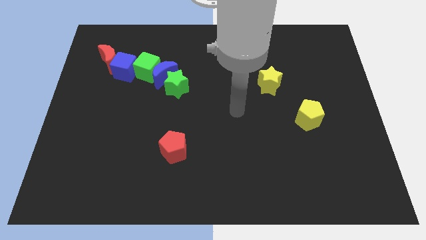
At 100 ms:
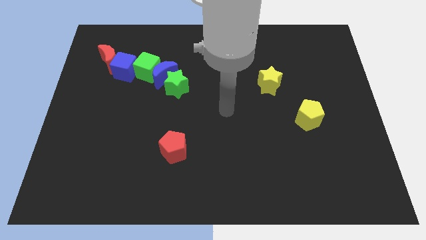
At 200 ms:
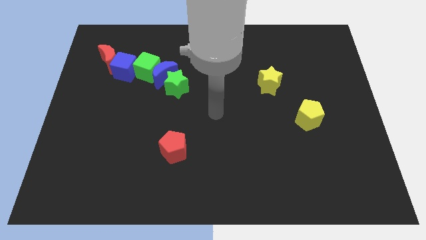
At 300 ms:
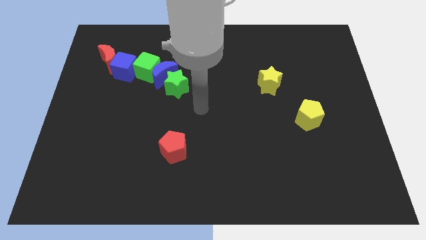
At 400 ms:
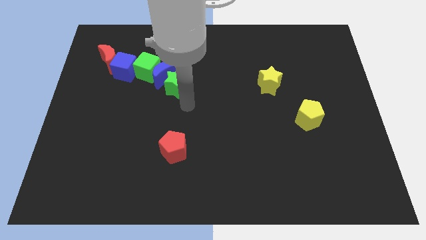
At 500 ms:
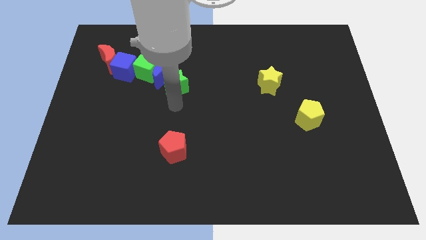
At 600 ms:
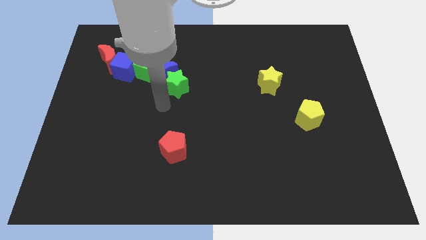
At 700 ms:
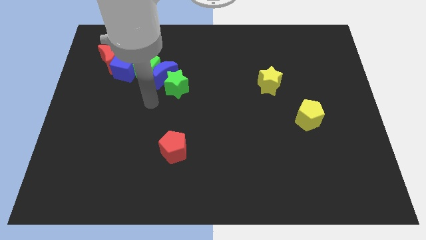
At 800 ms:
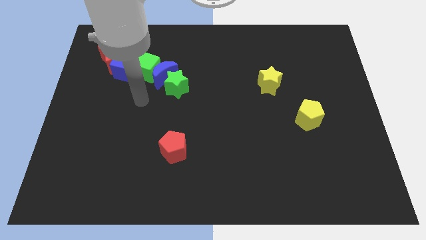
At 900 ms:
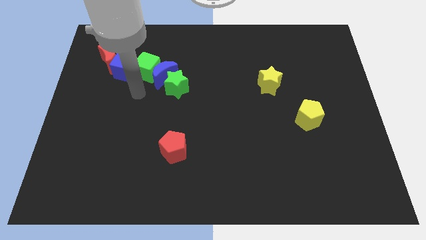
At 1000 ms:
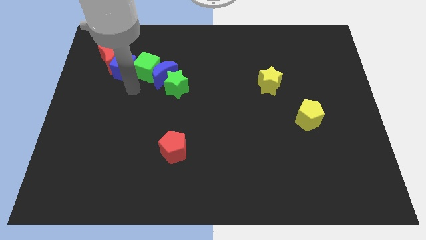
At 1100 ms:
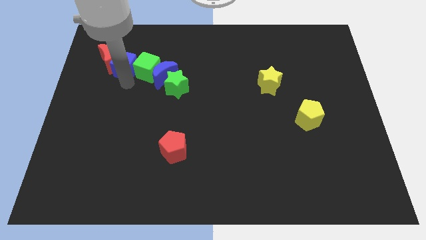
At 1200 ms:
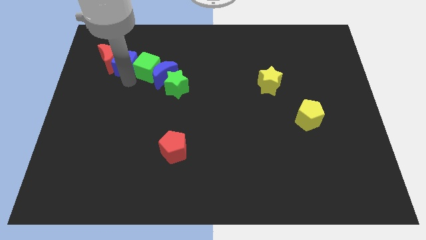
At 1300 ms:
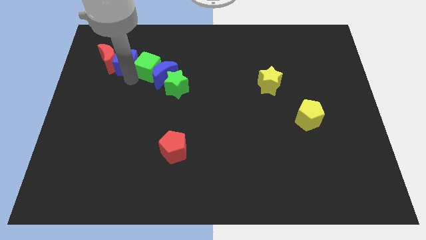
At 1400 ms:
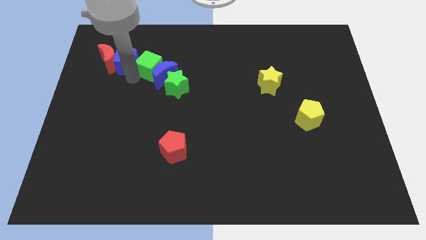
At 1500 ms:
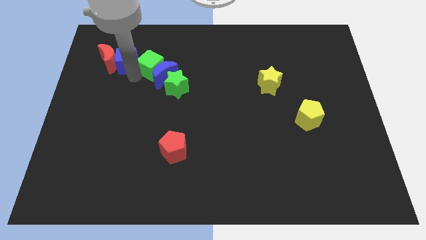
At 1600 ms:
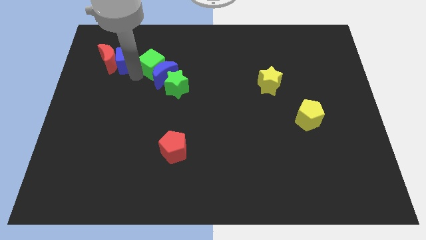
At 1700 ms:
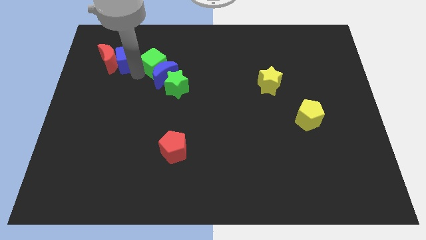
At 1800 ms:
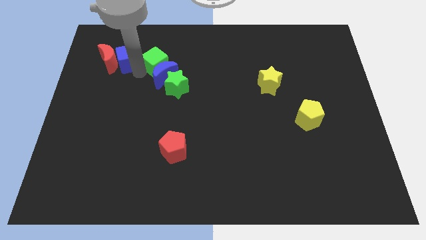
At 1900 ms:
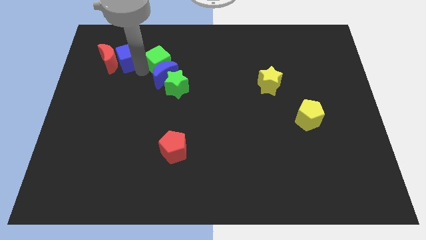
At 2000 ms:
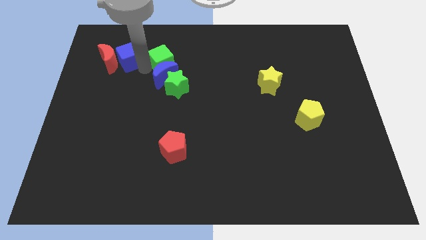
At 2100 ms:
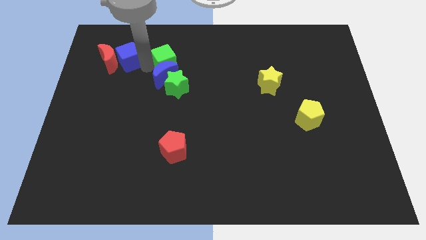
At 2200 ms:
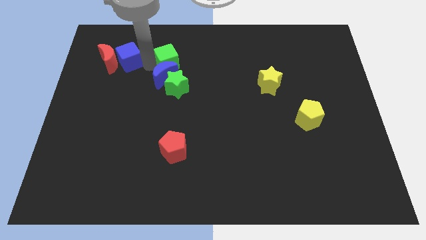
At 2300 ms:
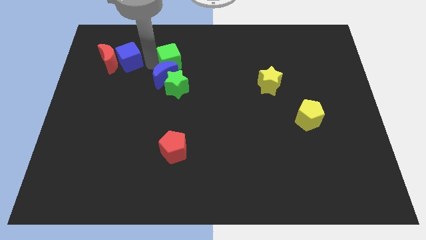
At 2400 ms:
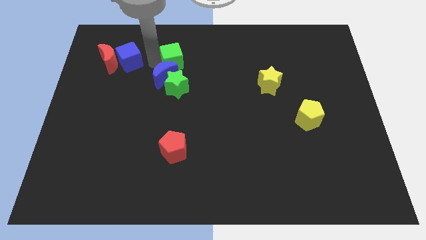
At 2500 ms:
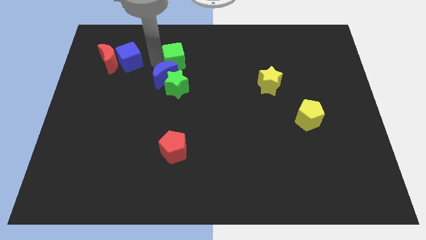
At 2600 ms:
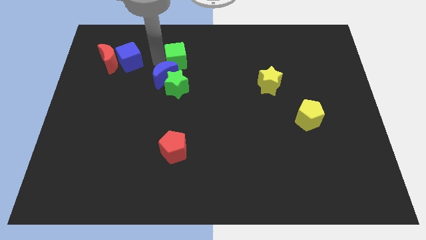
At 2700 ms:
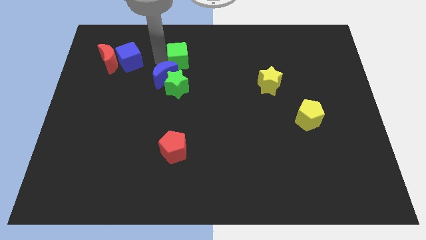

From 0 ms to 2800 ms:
push the green cube slightly right

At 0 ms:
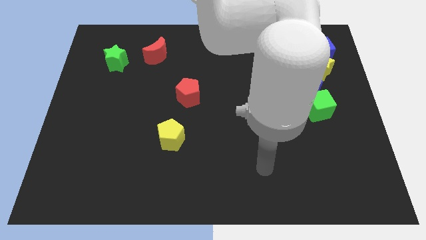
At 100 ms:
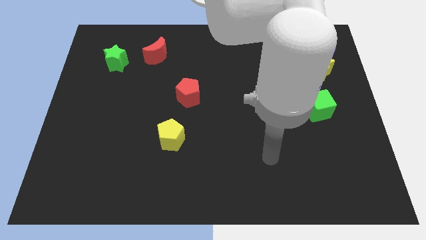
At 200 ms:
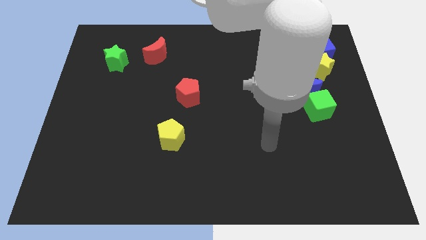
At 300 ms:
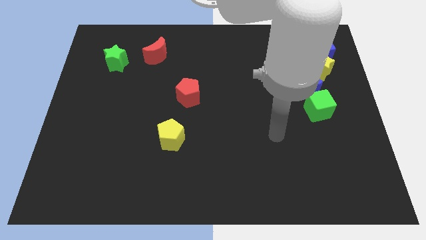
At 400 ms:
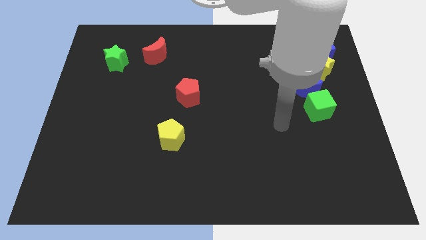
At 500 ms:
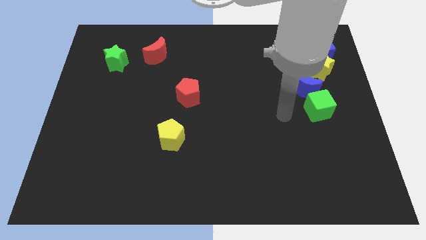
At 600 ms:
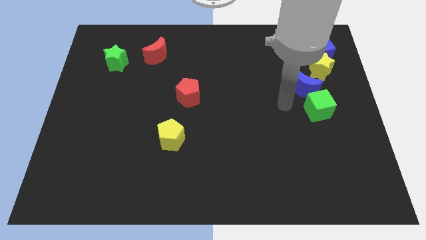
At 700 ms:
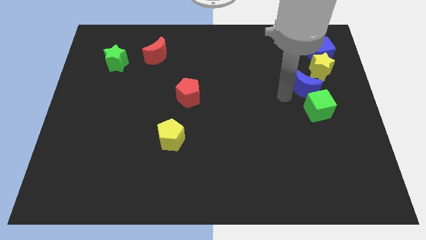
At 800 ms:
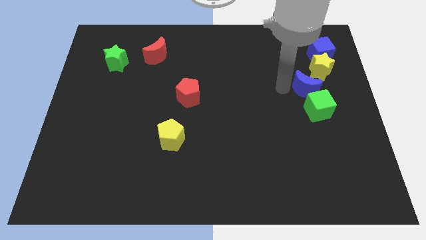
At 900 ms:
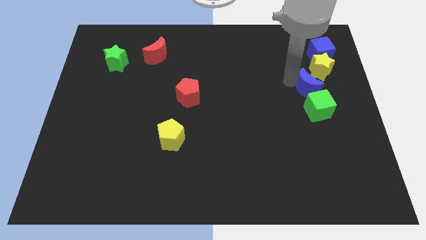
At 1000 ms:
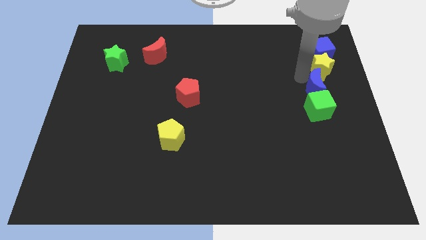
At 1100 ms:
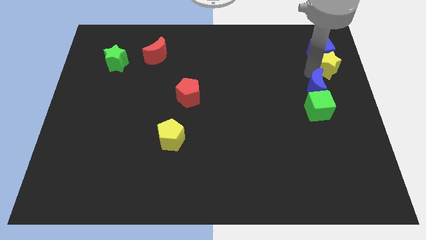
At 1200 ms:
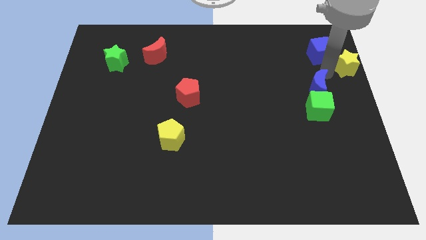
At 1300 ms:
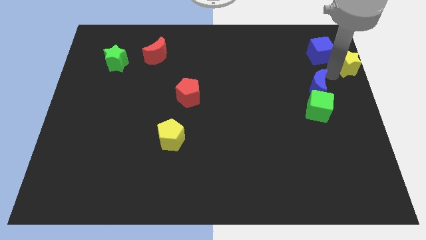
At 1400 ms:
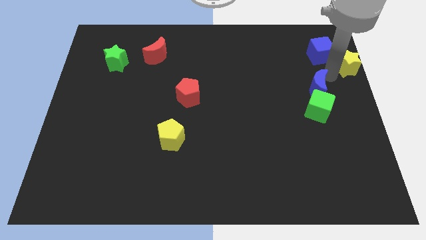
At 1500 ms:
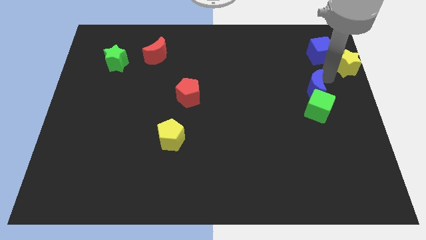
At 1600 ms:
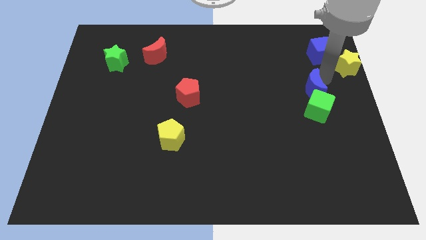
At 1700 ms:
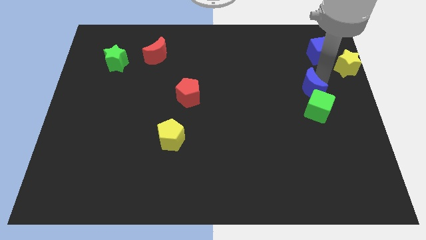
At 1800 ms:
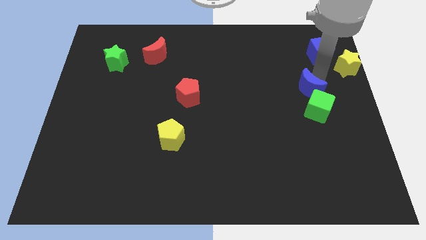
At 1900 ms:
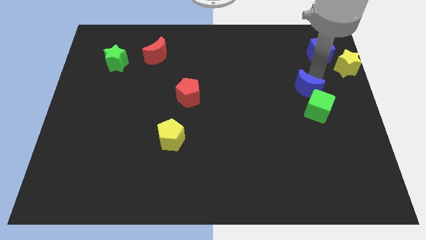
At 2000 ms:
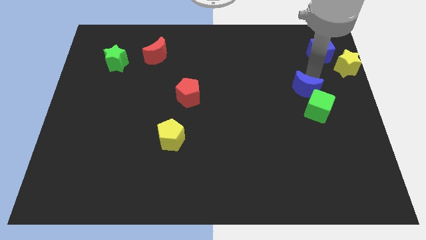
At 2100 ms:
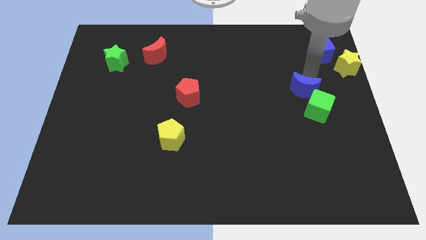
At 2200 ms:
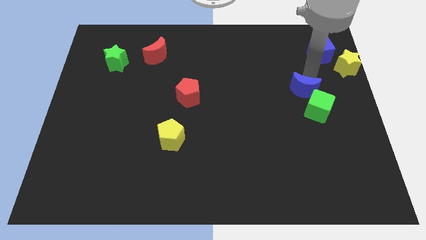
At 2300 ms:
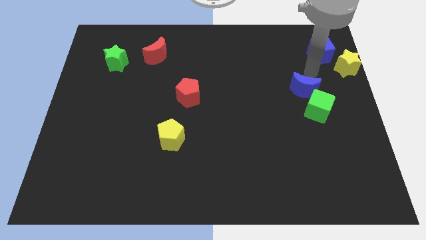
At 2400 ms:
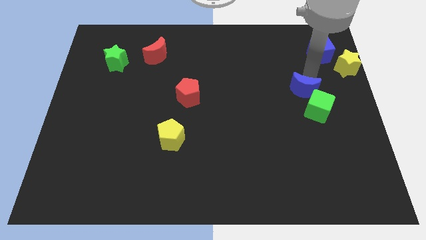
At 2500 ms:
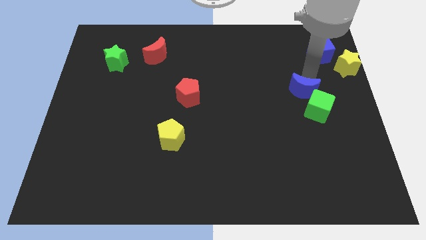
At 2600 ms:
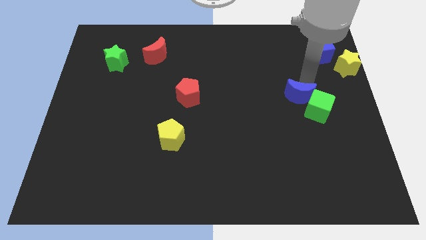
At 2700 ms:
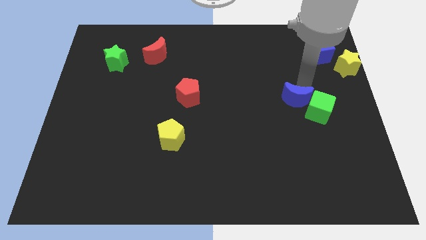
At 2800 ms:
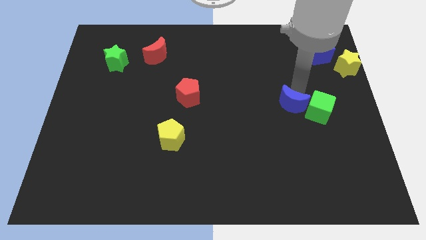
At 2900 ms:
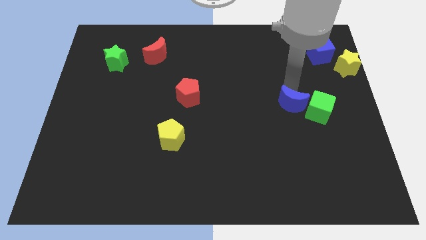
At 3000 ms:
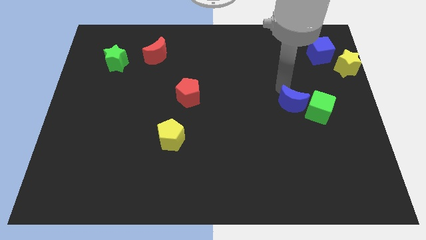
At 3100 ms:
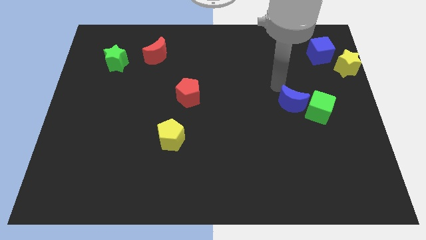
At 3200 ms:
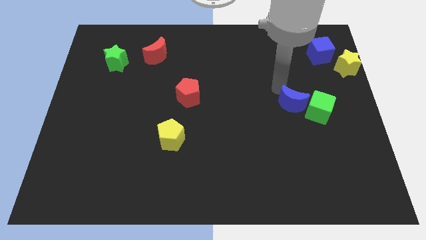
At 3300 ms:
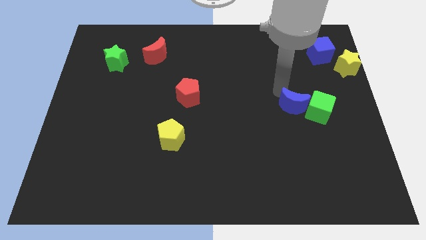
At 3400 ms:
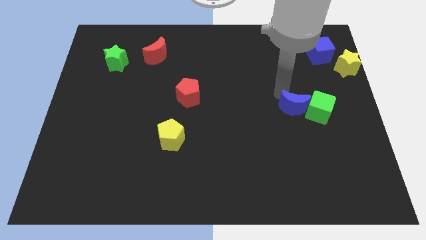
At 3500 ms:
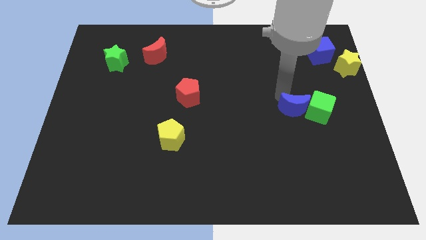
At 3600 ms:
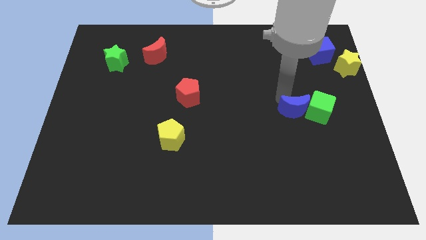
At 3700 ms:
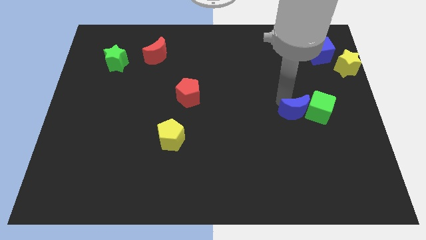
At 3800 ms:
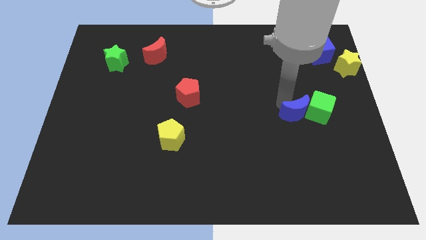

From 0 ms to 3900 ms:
slightly move the blue moon down

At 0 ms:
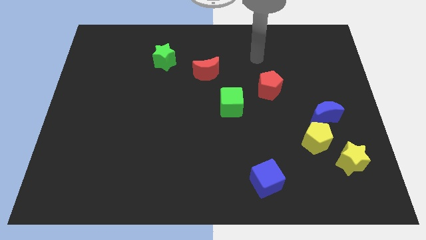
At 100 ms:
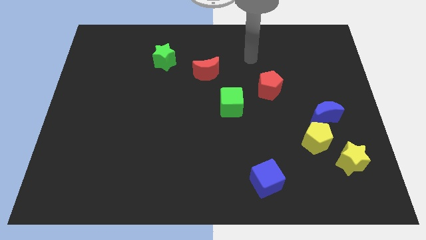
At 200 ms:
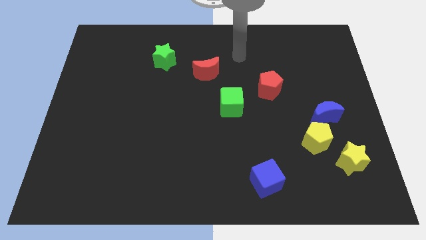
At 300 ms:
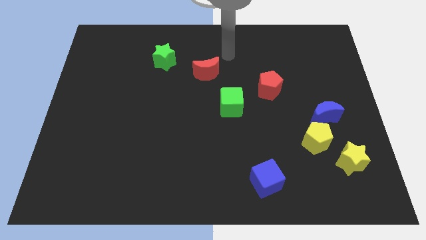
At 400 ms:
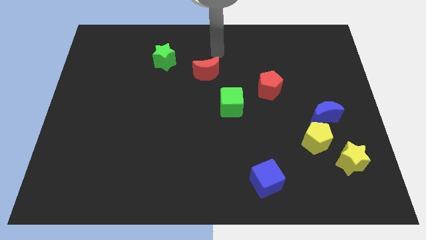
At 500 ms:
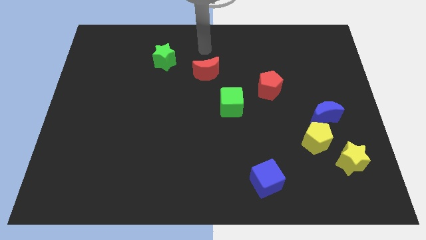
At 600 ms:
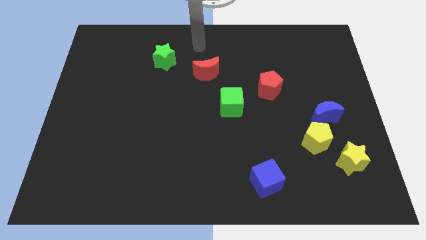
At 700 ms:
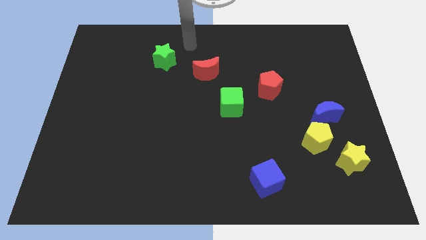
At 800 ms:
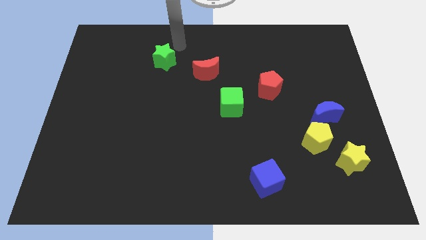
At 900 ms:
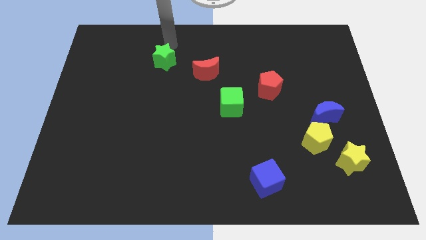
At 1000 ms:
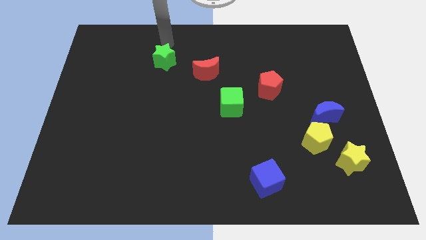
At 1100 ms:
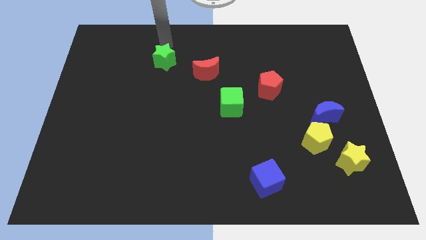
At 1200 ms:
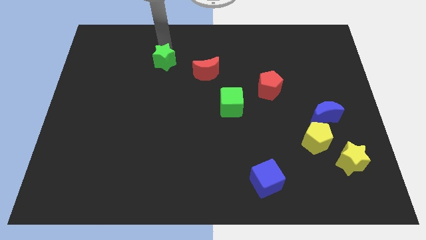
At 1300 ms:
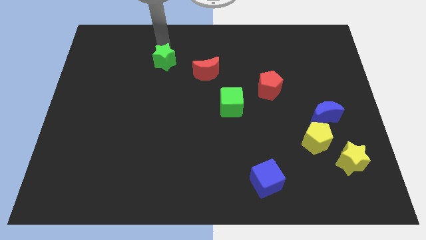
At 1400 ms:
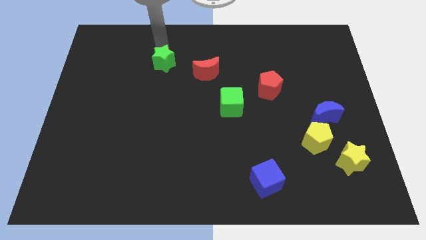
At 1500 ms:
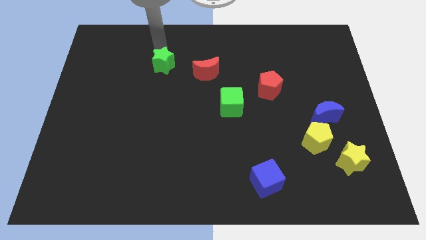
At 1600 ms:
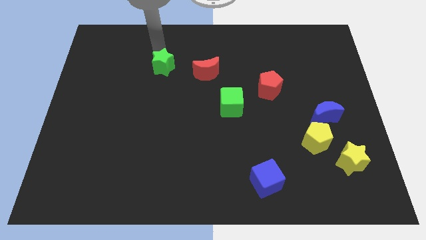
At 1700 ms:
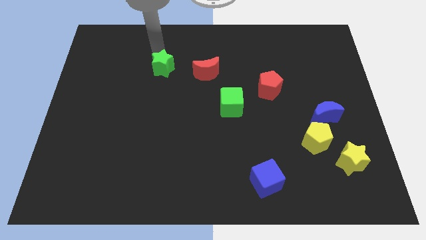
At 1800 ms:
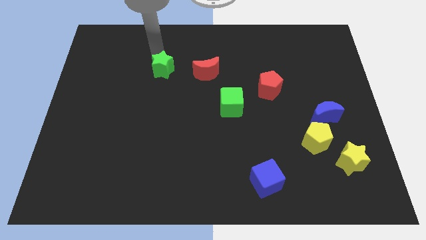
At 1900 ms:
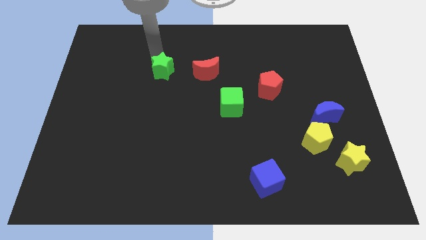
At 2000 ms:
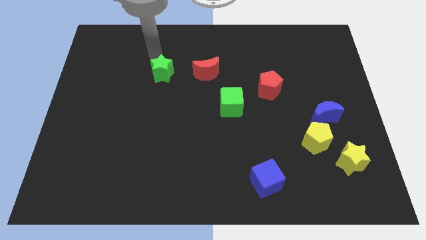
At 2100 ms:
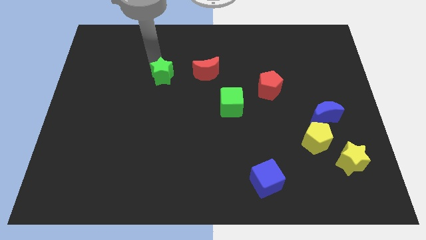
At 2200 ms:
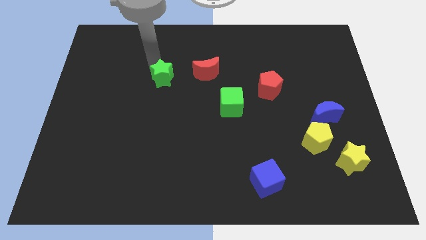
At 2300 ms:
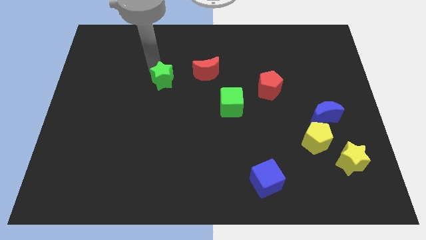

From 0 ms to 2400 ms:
move the green star slightly down
